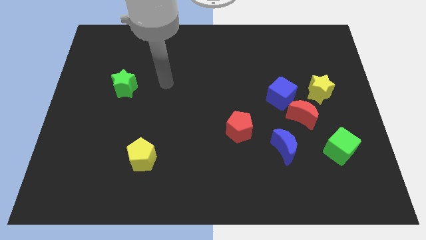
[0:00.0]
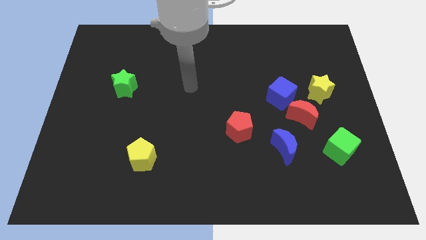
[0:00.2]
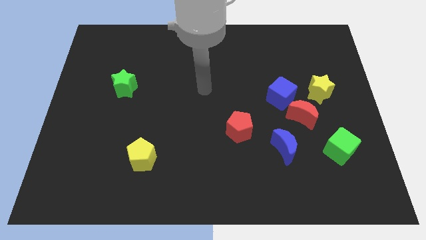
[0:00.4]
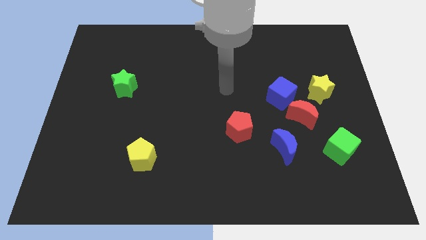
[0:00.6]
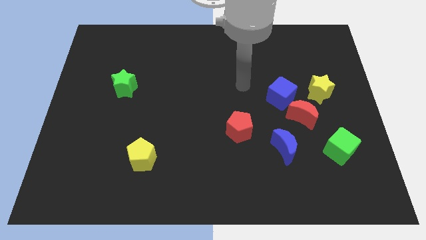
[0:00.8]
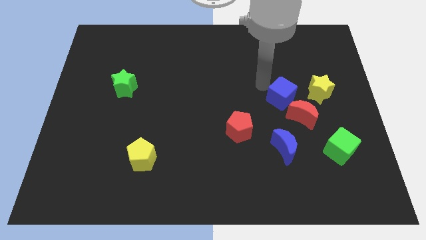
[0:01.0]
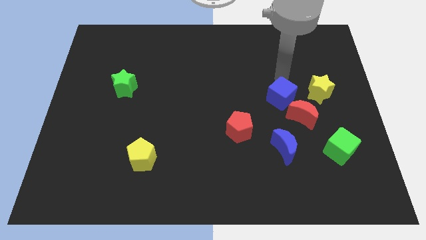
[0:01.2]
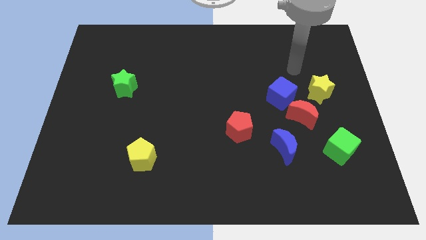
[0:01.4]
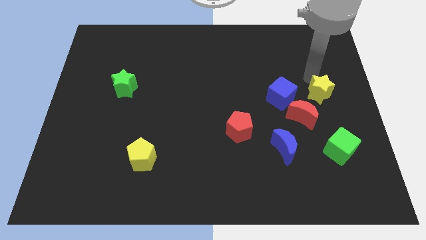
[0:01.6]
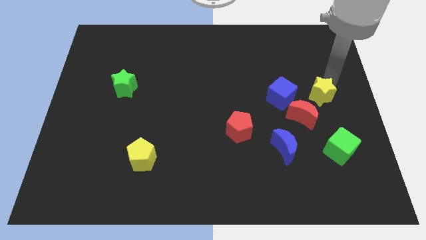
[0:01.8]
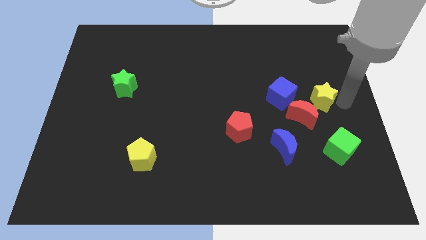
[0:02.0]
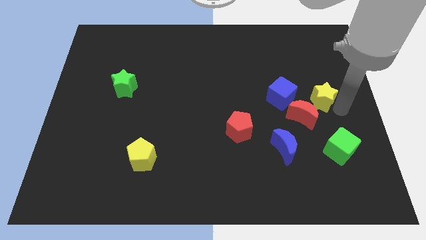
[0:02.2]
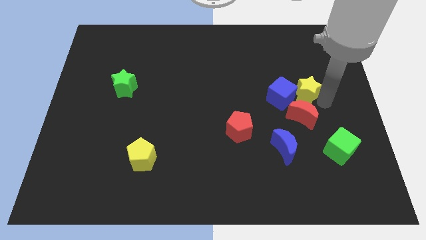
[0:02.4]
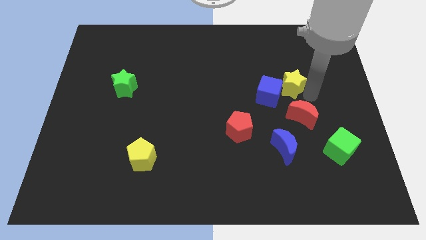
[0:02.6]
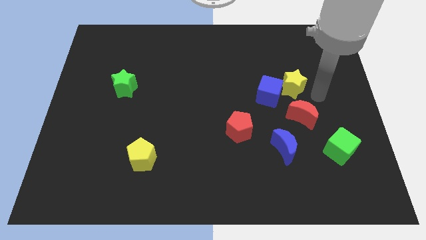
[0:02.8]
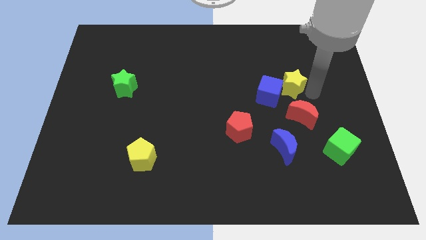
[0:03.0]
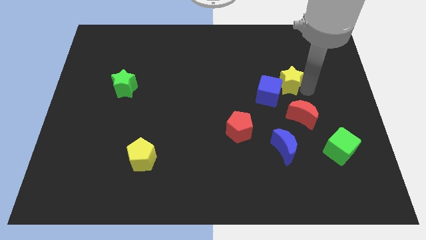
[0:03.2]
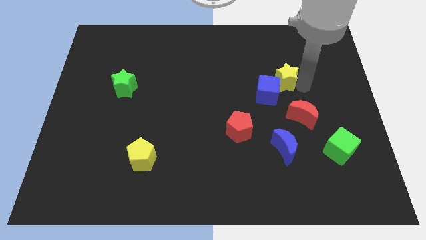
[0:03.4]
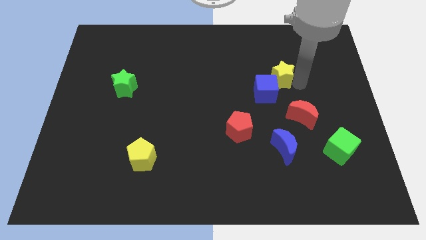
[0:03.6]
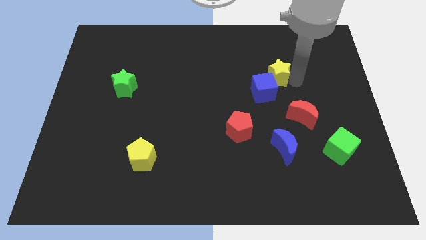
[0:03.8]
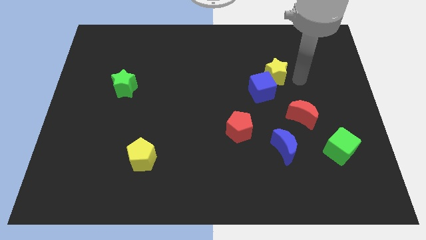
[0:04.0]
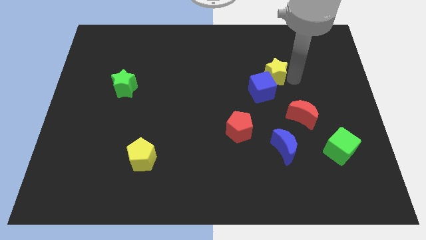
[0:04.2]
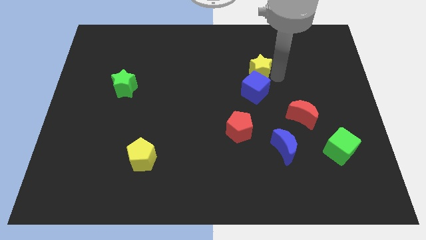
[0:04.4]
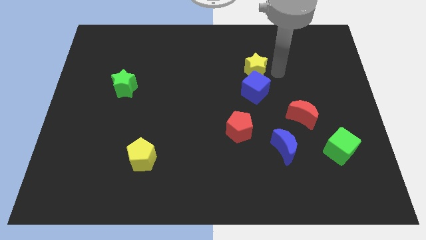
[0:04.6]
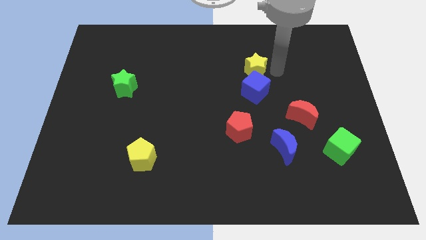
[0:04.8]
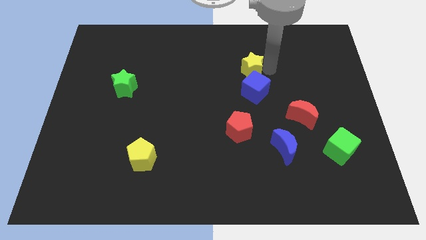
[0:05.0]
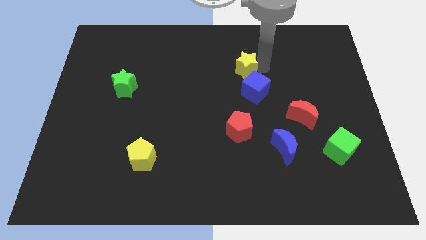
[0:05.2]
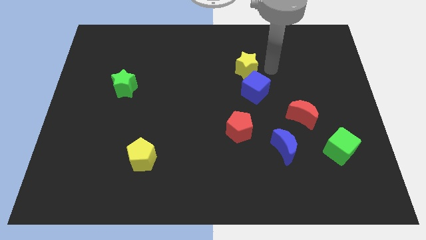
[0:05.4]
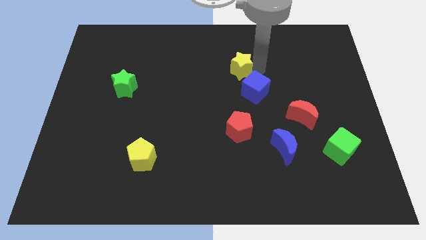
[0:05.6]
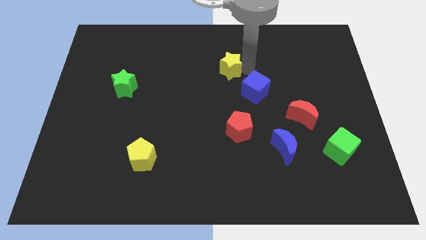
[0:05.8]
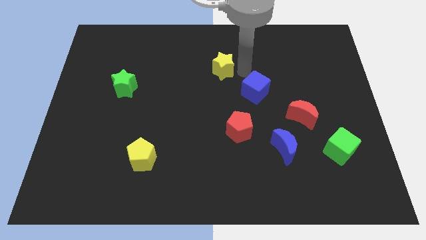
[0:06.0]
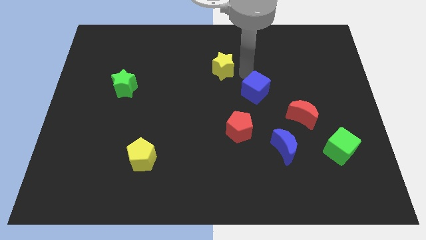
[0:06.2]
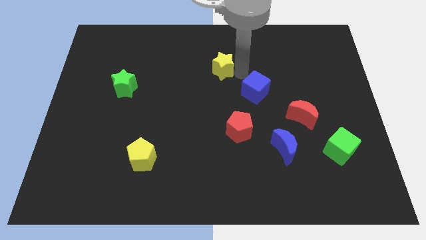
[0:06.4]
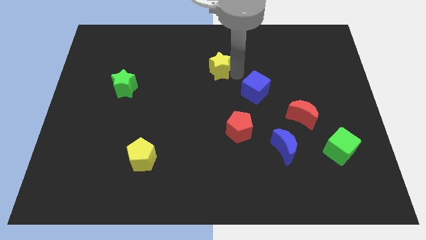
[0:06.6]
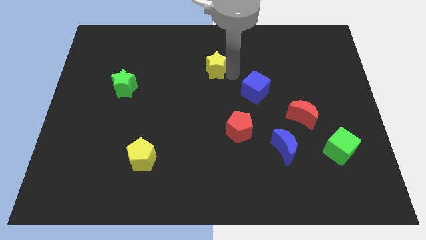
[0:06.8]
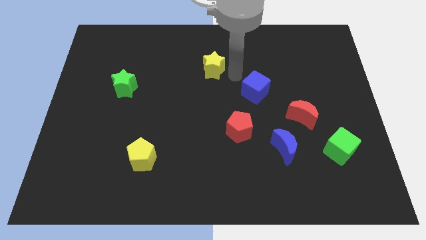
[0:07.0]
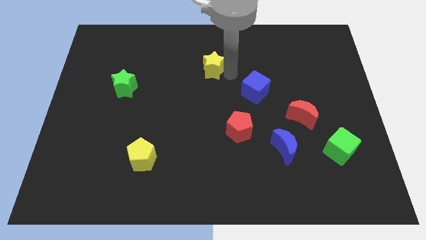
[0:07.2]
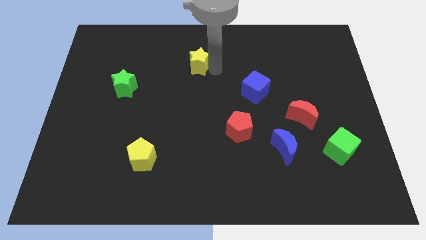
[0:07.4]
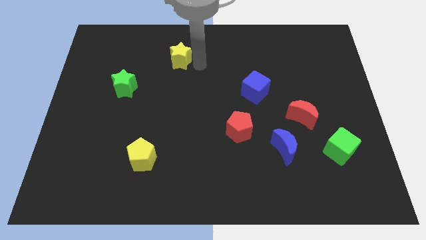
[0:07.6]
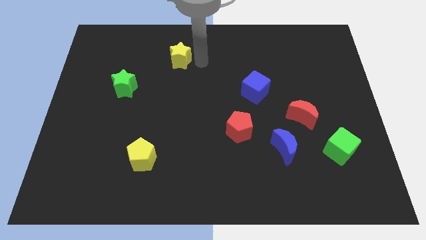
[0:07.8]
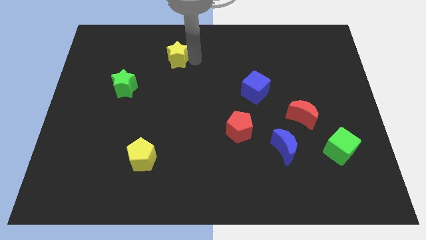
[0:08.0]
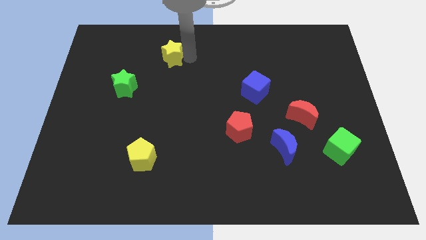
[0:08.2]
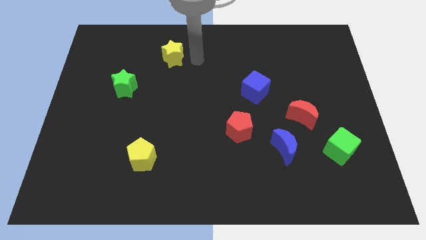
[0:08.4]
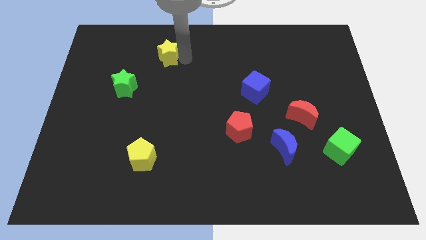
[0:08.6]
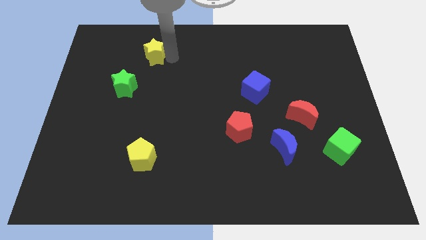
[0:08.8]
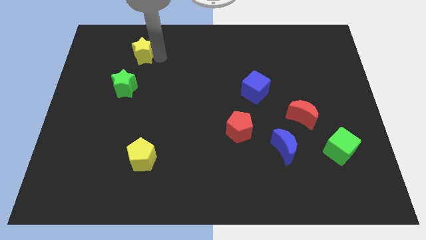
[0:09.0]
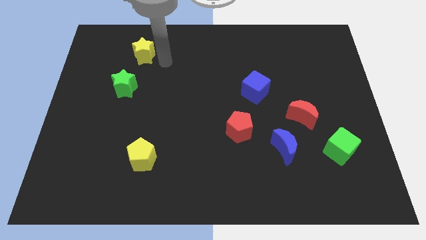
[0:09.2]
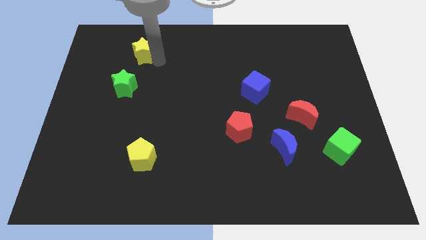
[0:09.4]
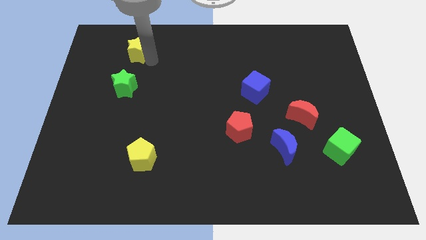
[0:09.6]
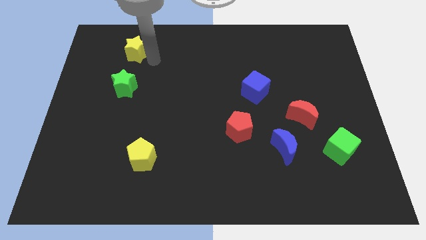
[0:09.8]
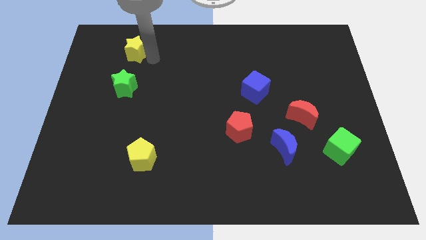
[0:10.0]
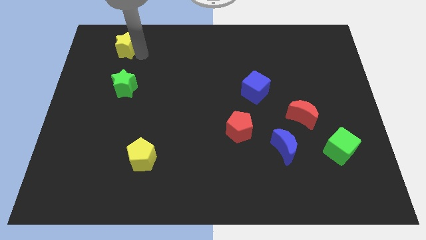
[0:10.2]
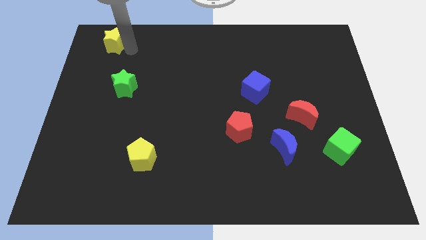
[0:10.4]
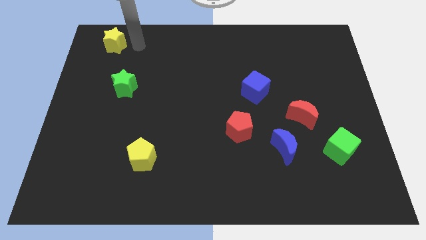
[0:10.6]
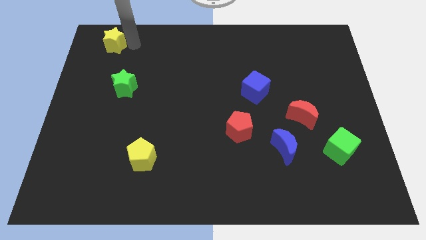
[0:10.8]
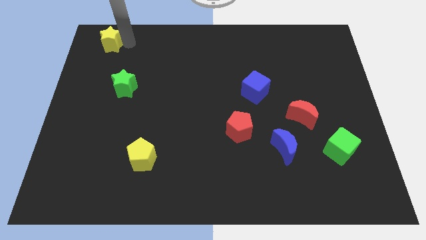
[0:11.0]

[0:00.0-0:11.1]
put the yellow star to the top left of the board
